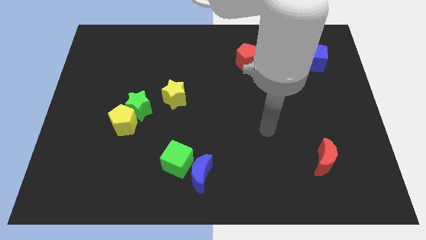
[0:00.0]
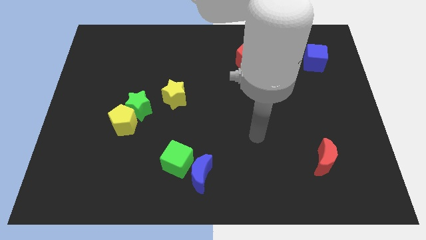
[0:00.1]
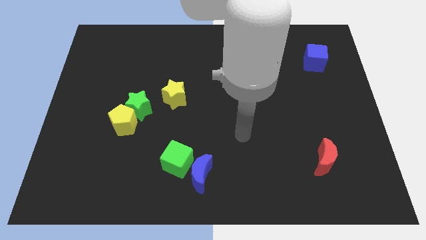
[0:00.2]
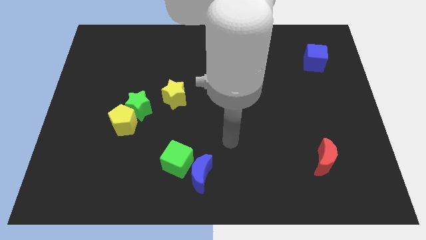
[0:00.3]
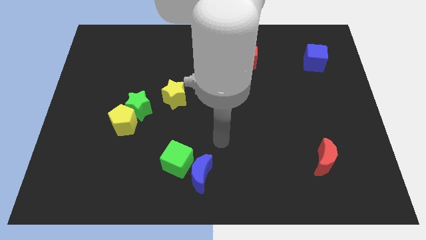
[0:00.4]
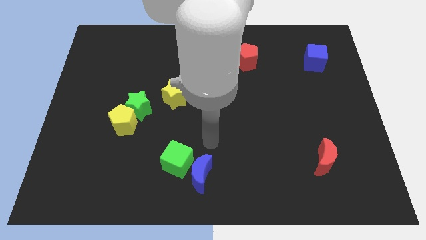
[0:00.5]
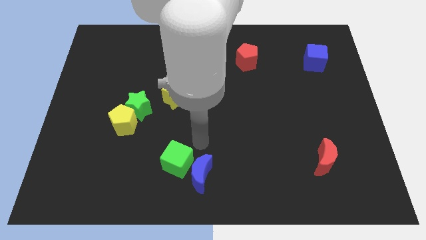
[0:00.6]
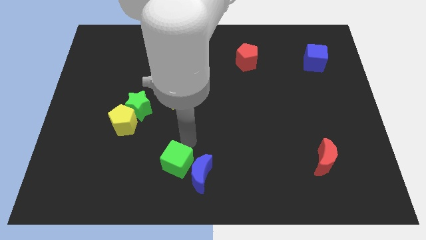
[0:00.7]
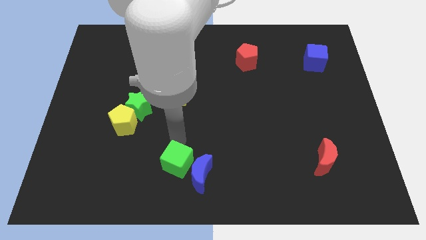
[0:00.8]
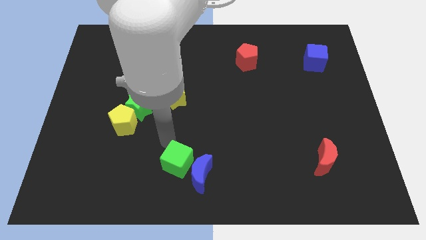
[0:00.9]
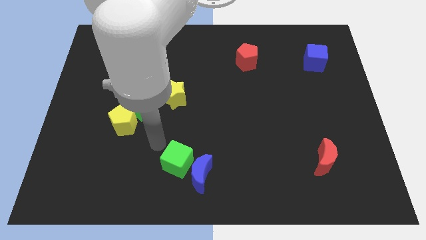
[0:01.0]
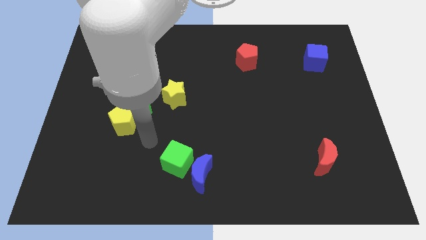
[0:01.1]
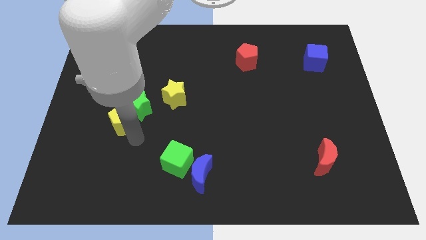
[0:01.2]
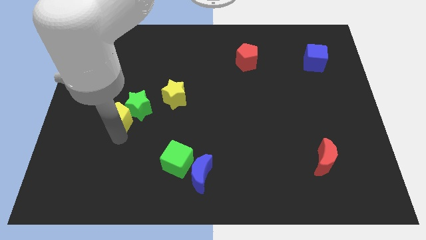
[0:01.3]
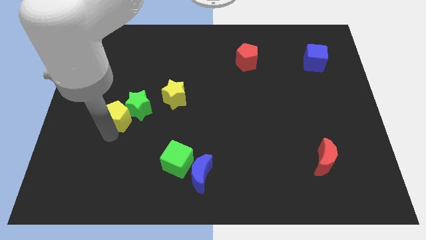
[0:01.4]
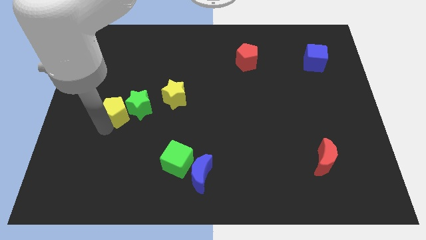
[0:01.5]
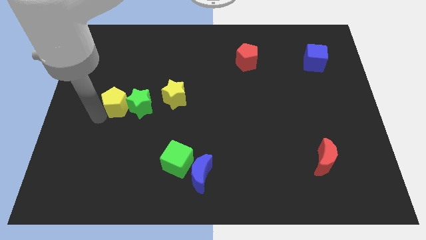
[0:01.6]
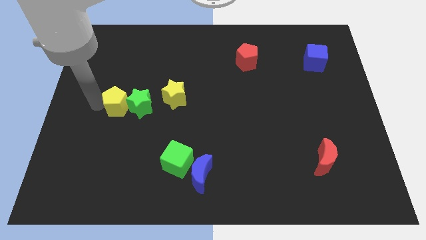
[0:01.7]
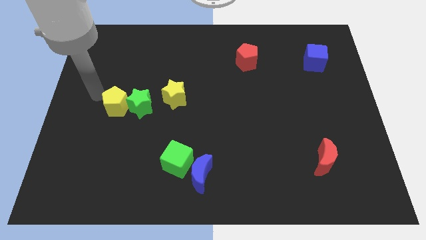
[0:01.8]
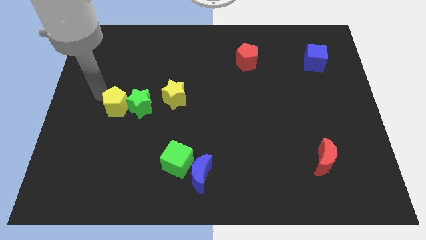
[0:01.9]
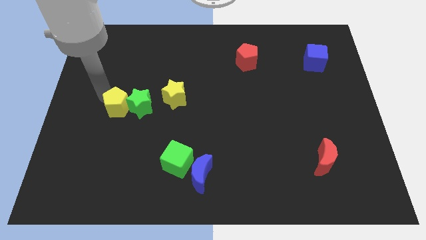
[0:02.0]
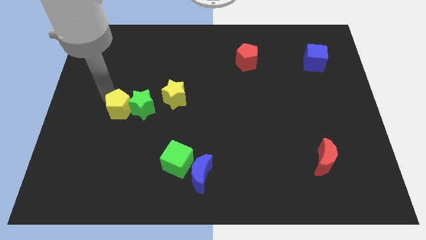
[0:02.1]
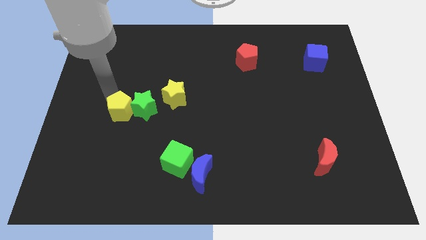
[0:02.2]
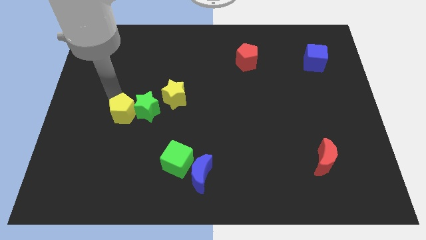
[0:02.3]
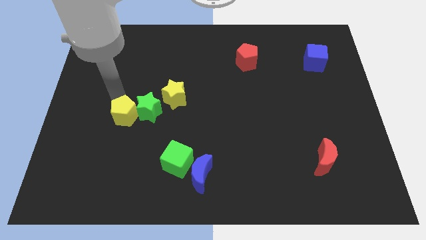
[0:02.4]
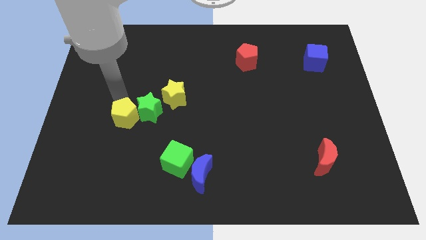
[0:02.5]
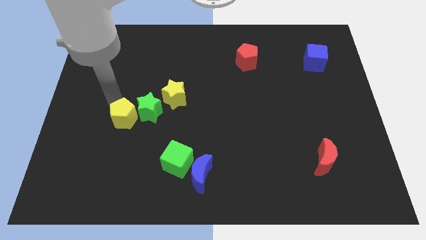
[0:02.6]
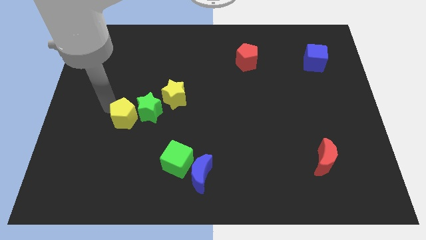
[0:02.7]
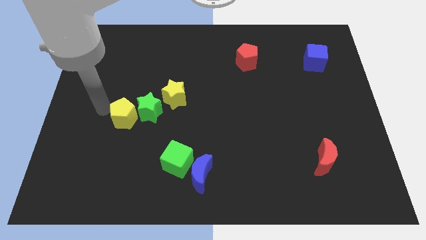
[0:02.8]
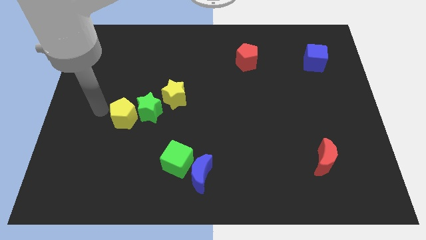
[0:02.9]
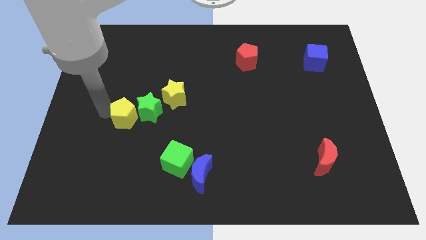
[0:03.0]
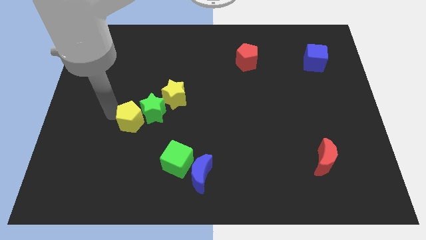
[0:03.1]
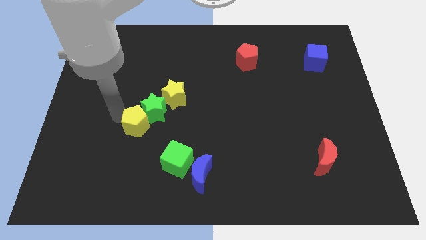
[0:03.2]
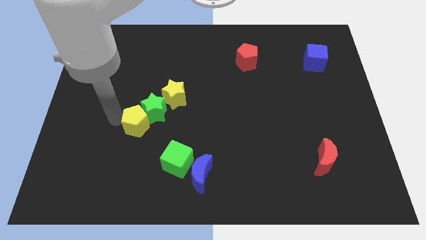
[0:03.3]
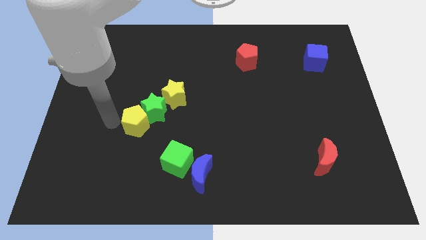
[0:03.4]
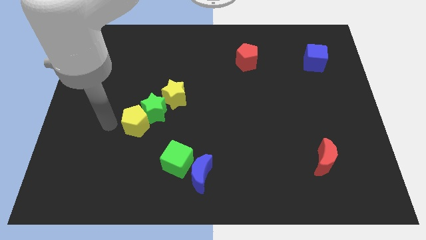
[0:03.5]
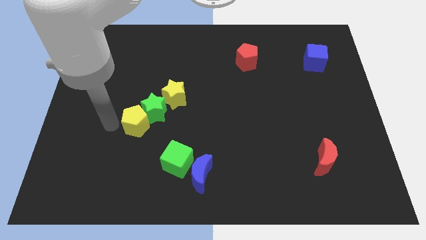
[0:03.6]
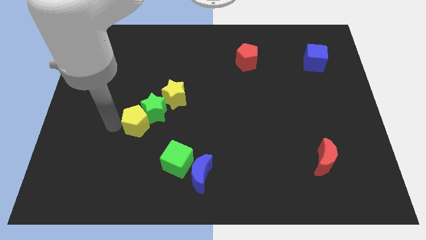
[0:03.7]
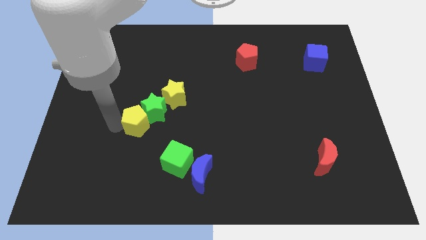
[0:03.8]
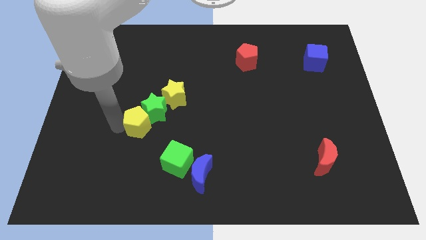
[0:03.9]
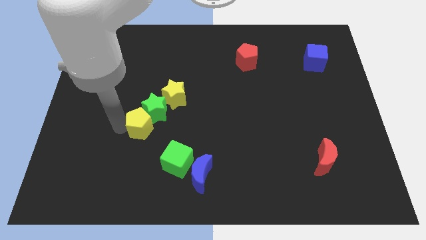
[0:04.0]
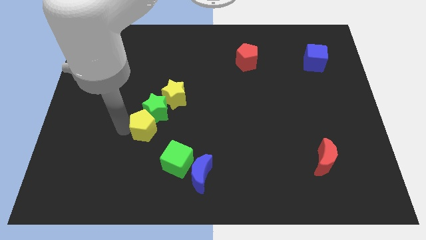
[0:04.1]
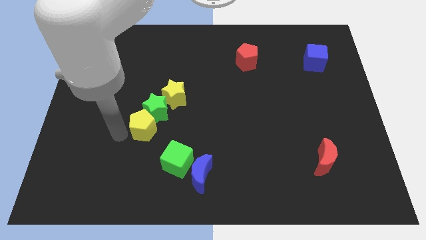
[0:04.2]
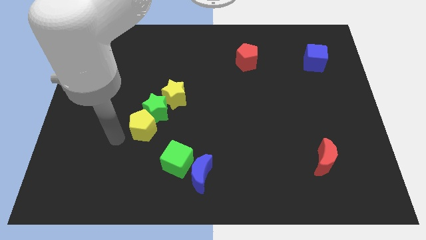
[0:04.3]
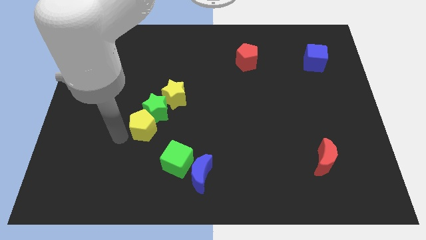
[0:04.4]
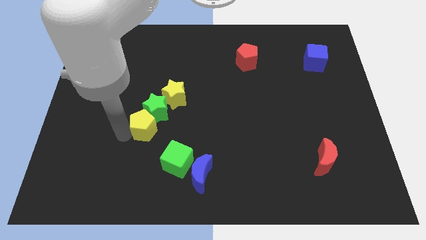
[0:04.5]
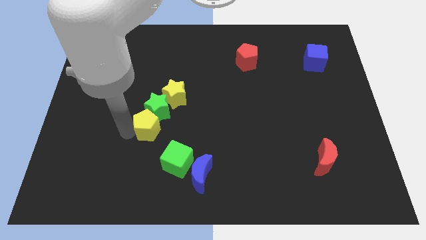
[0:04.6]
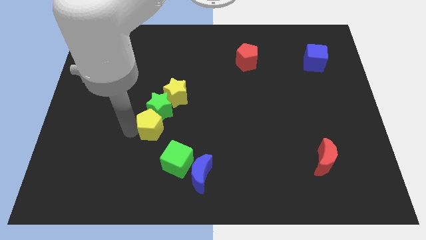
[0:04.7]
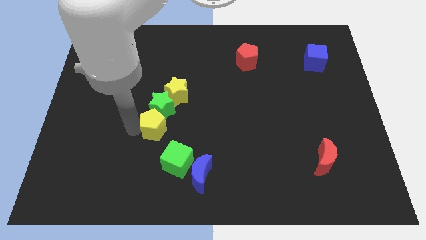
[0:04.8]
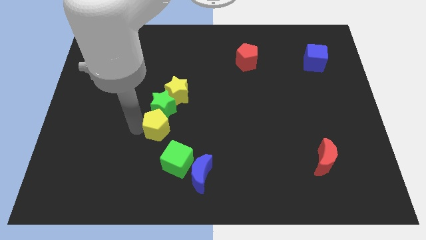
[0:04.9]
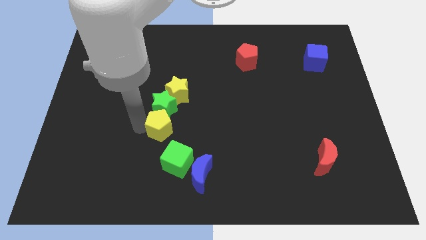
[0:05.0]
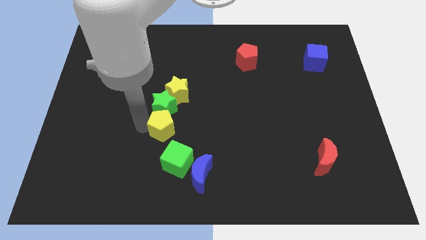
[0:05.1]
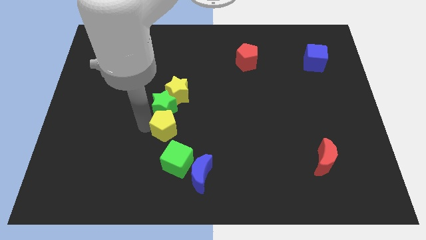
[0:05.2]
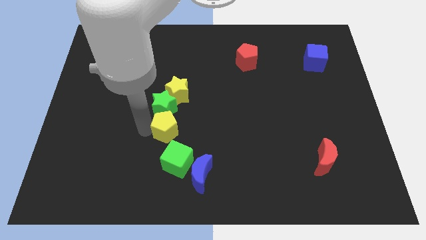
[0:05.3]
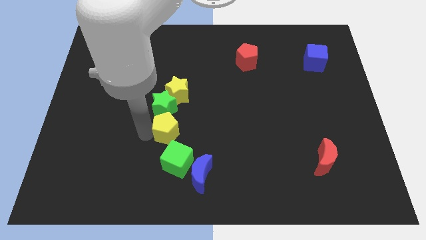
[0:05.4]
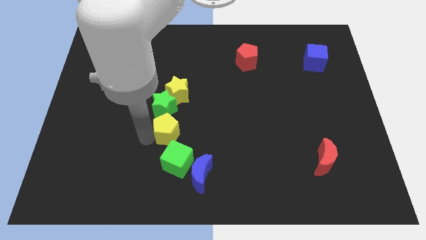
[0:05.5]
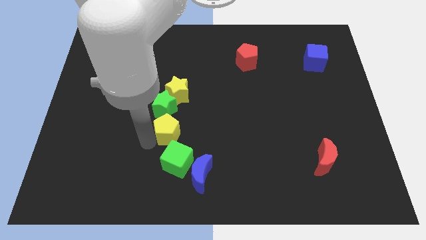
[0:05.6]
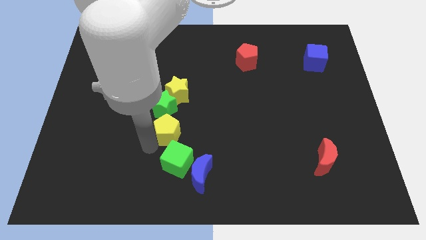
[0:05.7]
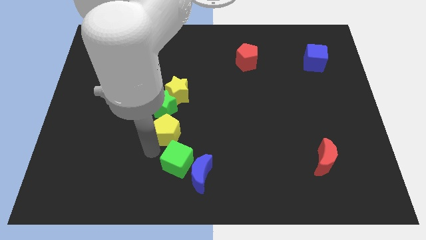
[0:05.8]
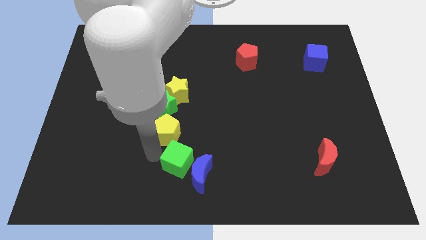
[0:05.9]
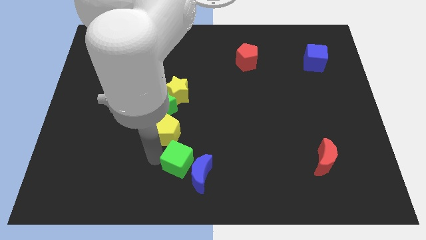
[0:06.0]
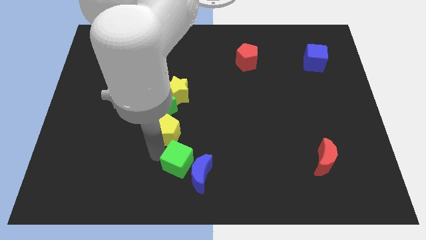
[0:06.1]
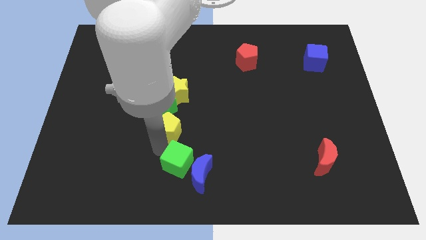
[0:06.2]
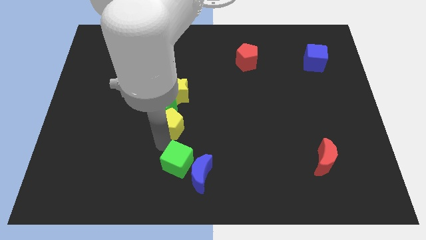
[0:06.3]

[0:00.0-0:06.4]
move the yellow pentagon to the middle of the board
